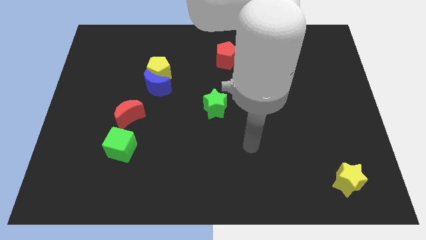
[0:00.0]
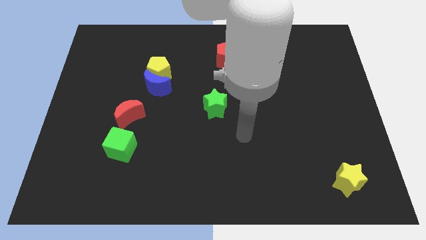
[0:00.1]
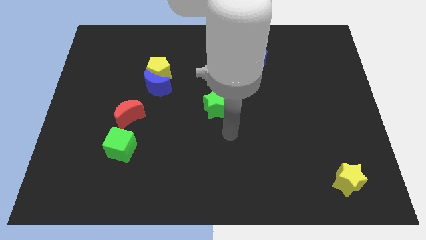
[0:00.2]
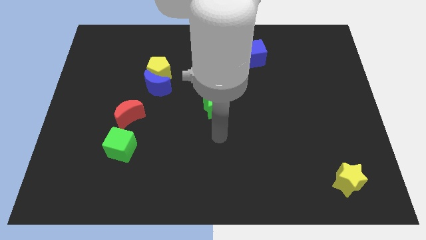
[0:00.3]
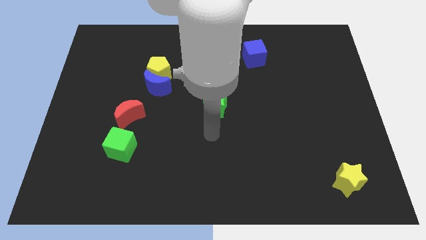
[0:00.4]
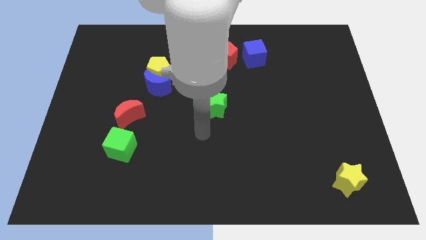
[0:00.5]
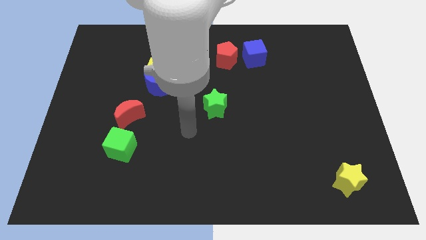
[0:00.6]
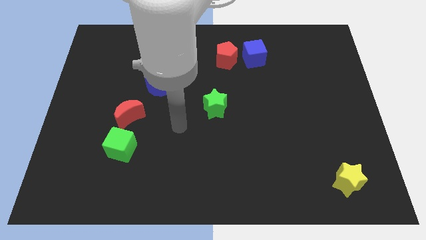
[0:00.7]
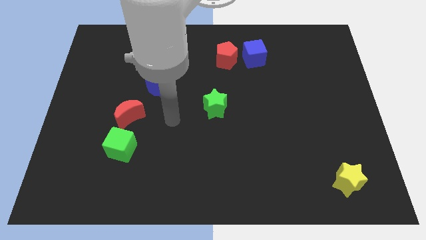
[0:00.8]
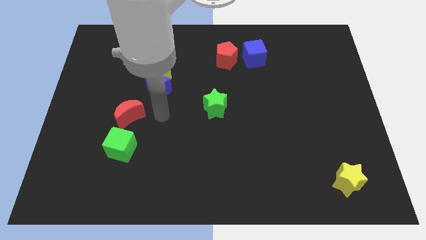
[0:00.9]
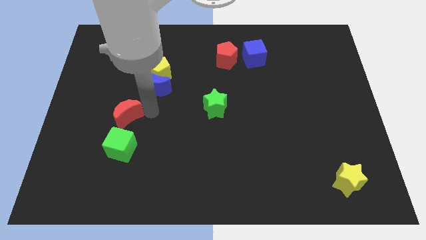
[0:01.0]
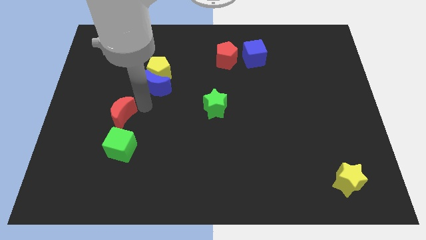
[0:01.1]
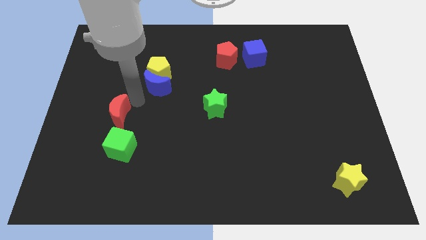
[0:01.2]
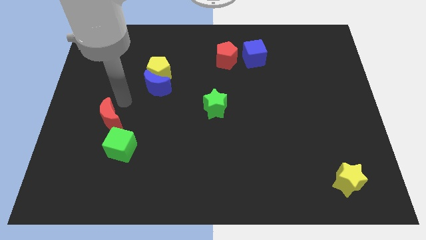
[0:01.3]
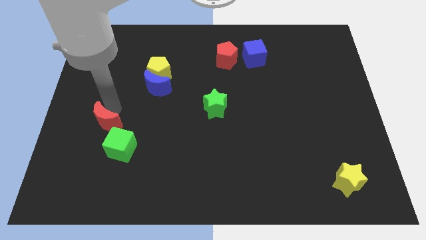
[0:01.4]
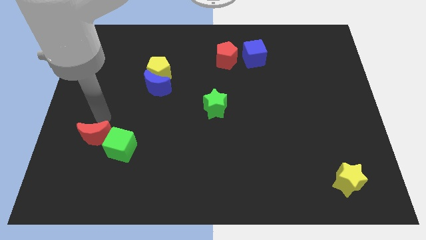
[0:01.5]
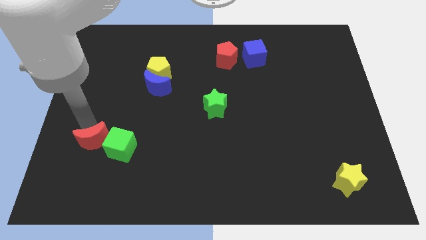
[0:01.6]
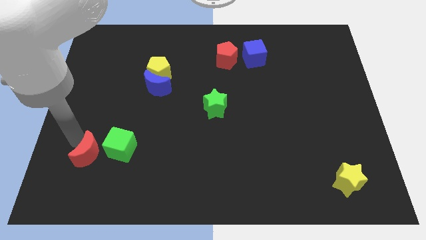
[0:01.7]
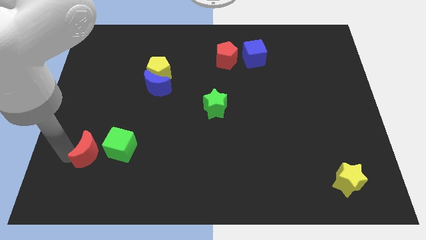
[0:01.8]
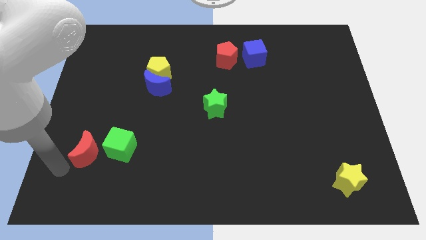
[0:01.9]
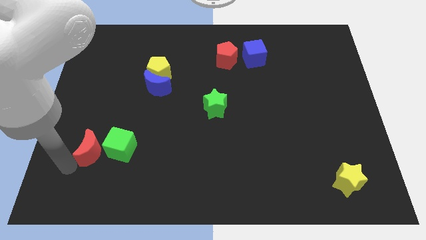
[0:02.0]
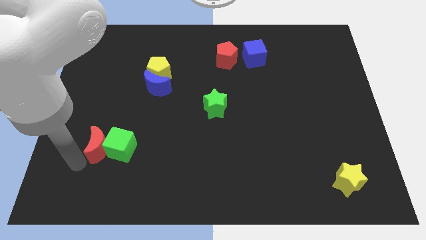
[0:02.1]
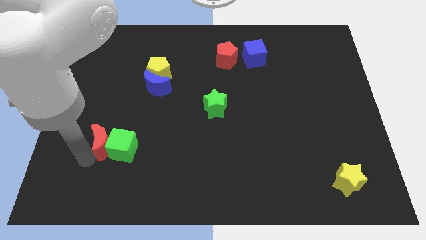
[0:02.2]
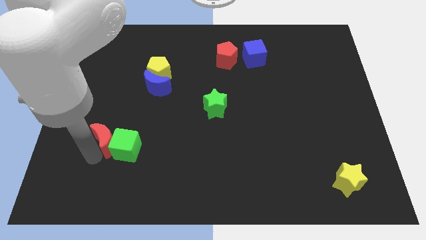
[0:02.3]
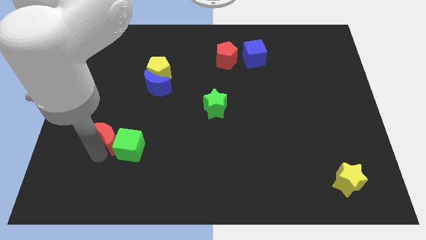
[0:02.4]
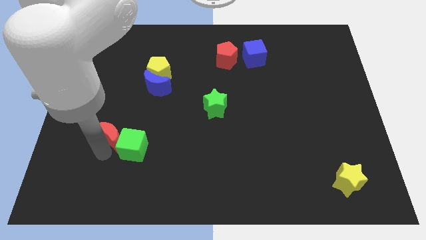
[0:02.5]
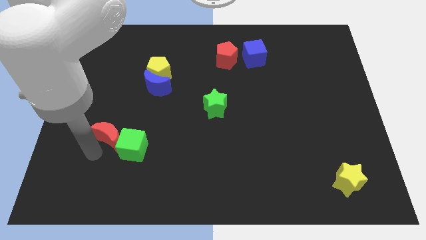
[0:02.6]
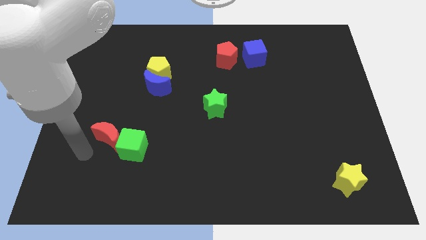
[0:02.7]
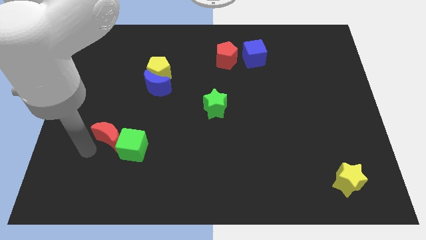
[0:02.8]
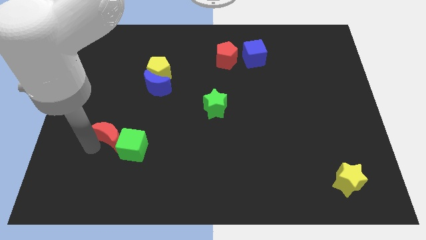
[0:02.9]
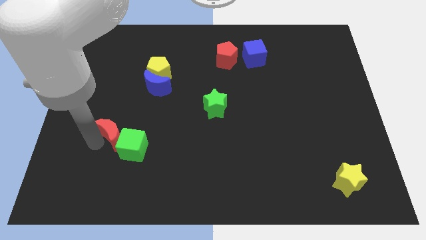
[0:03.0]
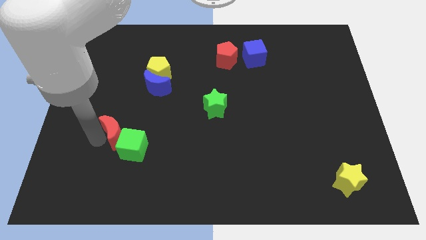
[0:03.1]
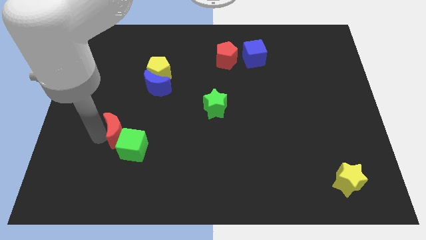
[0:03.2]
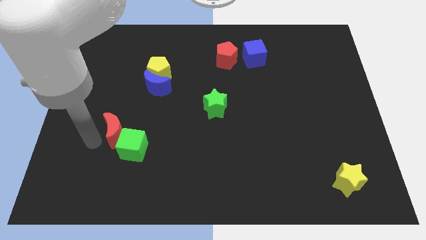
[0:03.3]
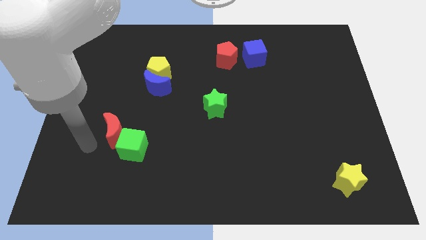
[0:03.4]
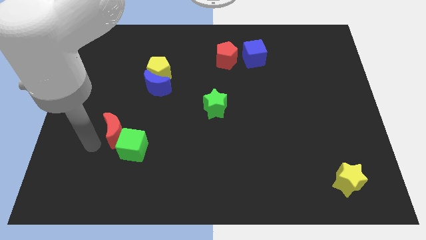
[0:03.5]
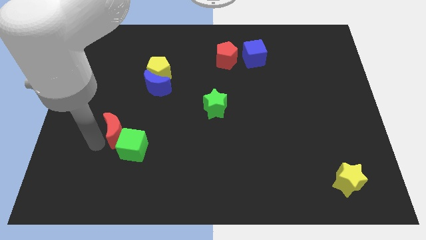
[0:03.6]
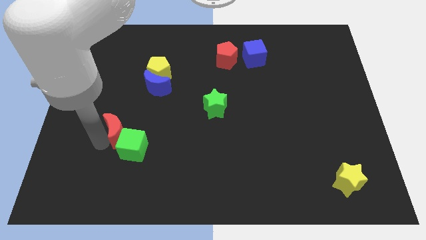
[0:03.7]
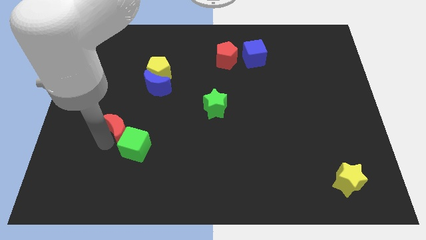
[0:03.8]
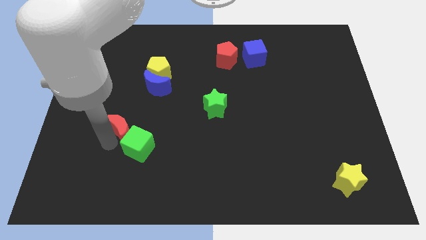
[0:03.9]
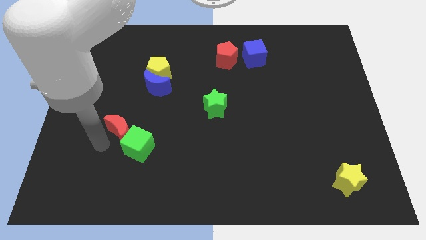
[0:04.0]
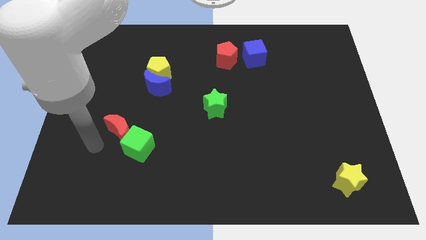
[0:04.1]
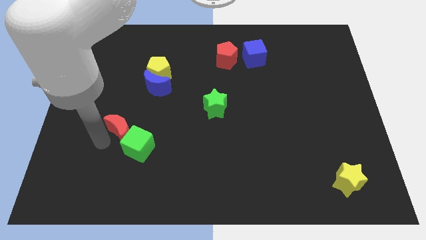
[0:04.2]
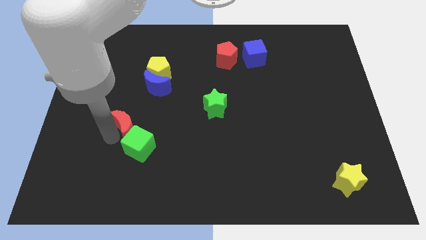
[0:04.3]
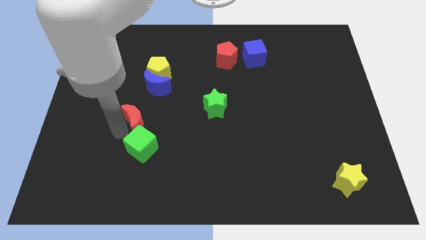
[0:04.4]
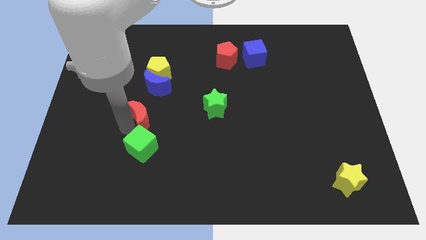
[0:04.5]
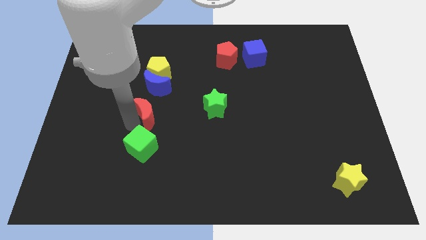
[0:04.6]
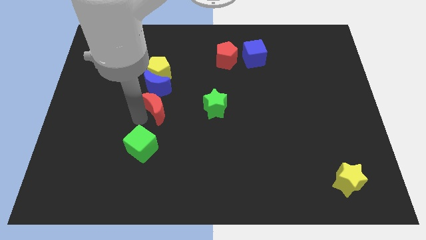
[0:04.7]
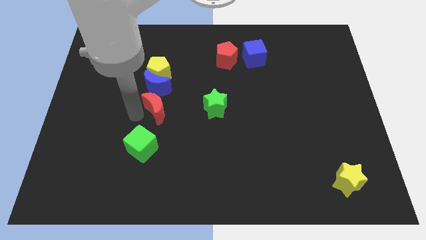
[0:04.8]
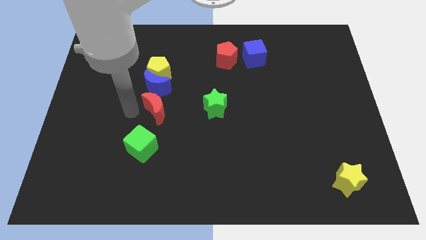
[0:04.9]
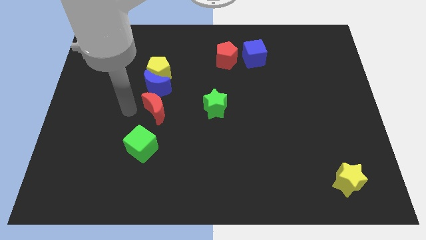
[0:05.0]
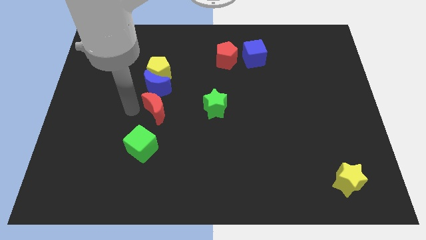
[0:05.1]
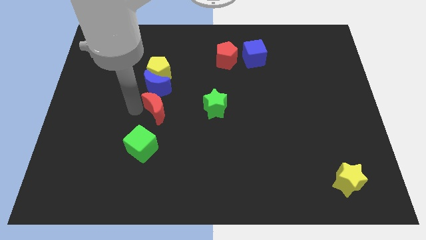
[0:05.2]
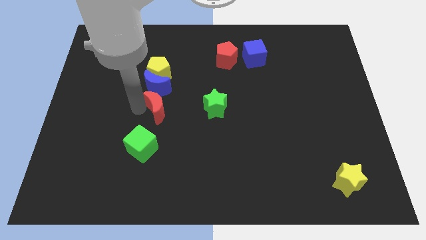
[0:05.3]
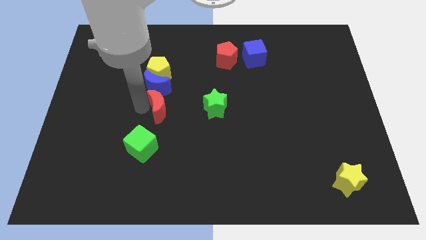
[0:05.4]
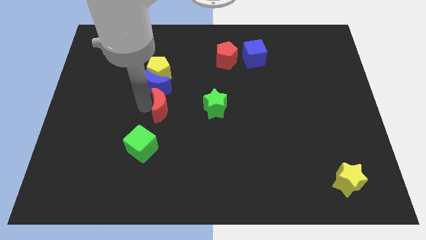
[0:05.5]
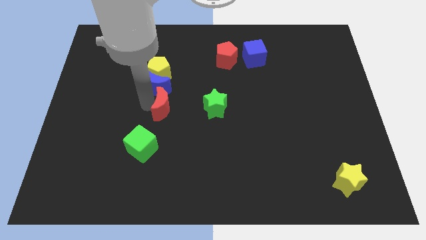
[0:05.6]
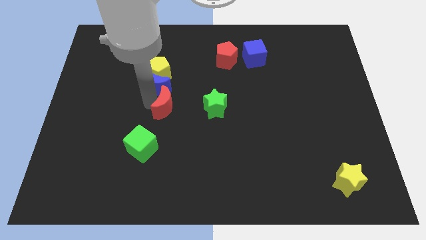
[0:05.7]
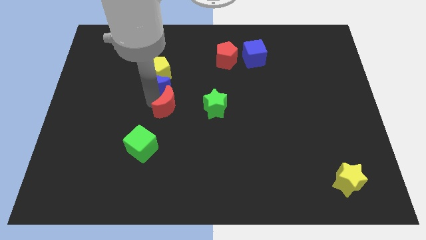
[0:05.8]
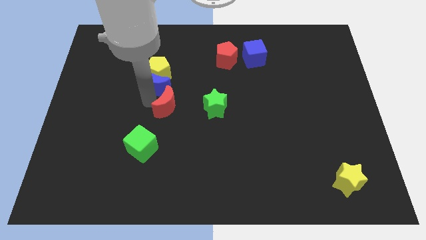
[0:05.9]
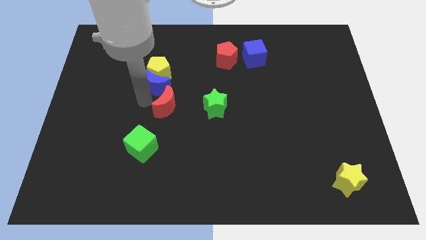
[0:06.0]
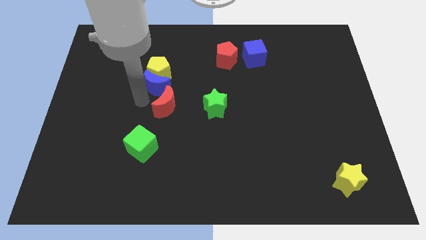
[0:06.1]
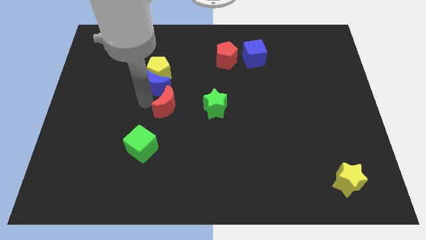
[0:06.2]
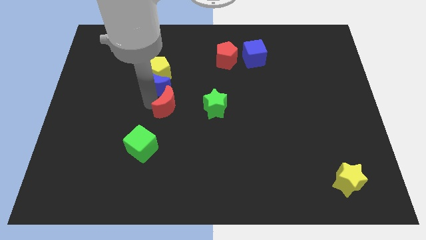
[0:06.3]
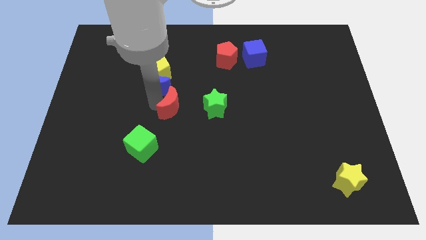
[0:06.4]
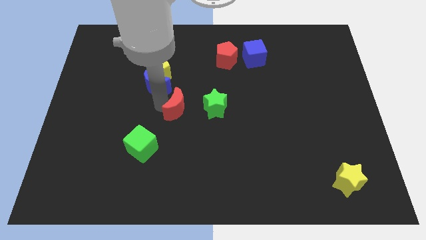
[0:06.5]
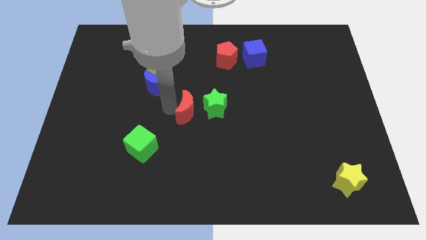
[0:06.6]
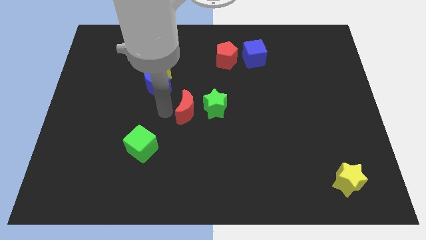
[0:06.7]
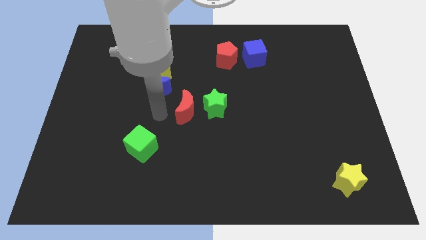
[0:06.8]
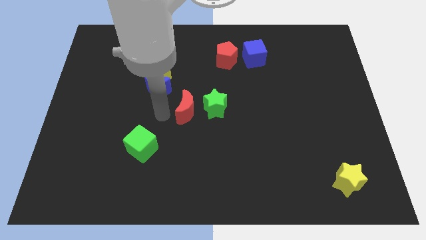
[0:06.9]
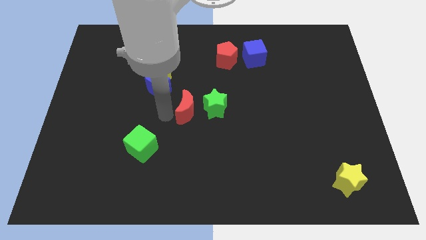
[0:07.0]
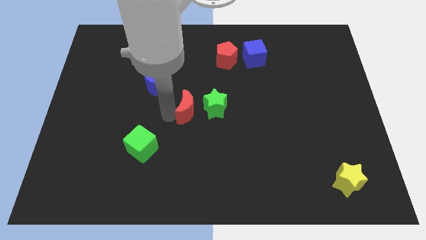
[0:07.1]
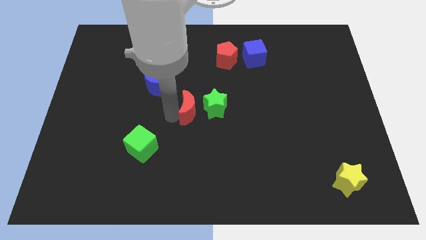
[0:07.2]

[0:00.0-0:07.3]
move the red moon to the green star
